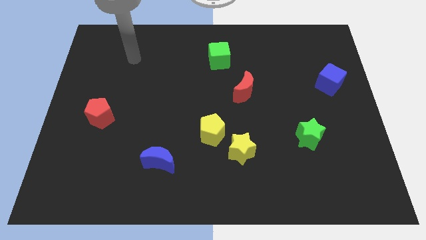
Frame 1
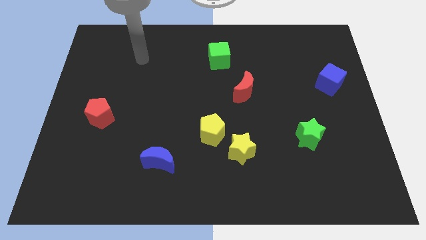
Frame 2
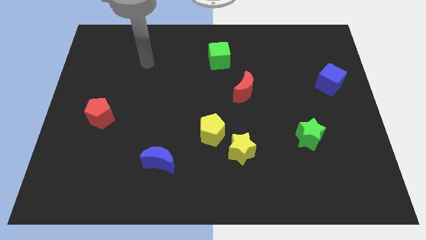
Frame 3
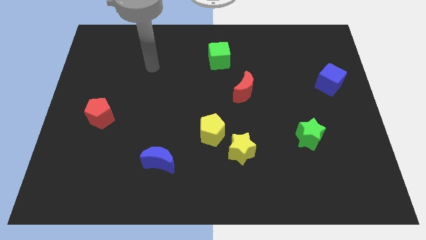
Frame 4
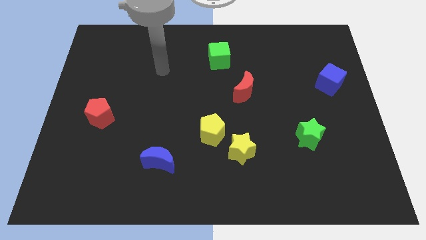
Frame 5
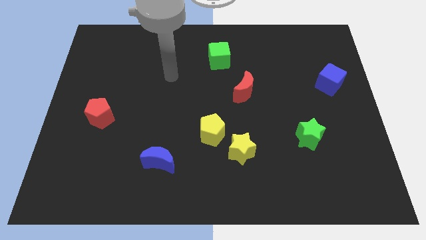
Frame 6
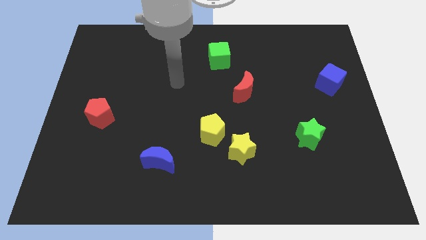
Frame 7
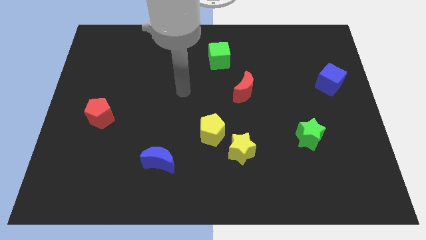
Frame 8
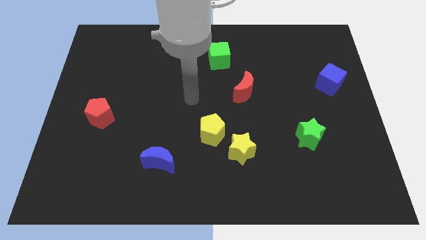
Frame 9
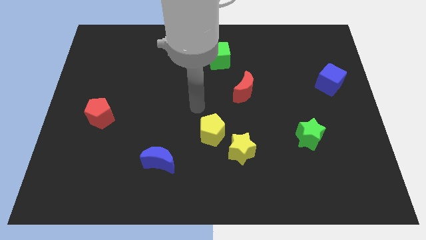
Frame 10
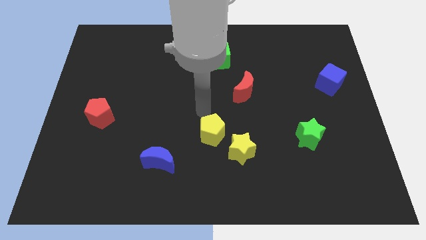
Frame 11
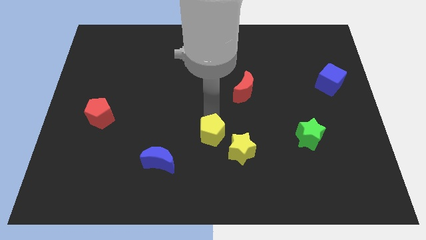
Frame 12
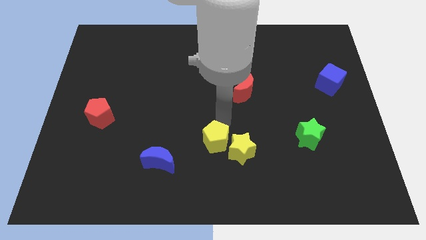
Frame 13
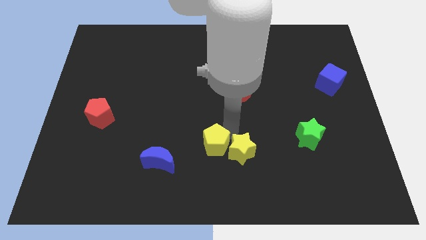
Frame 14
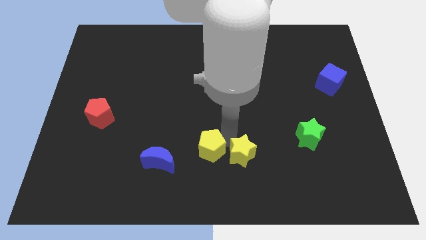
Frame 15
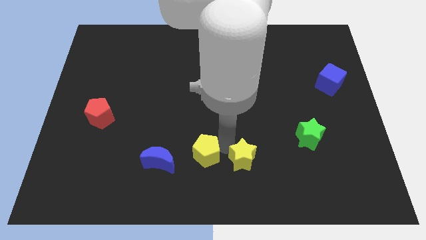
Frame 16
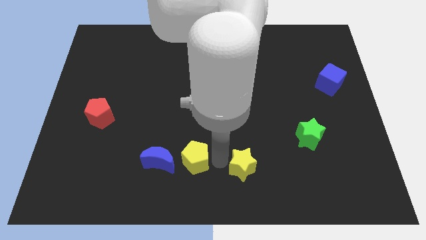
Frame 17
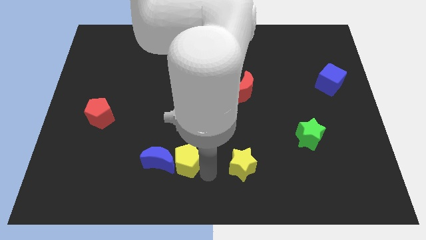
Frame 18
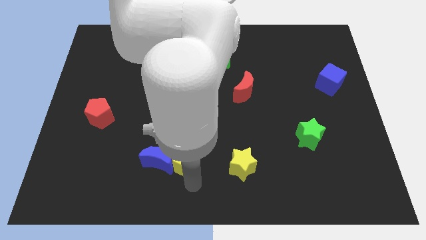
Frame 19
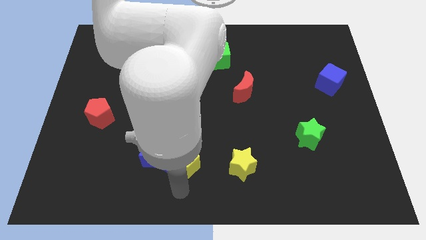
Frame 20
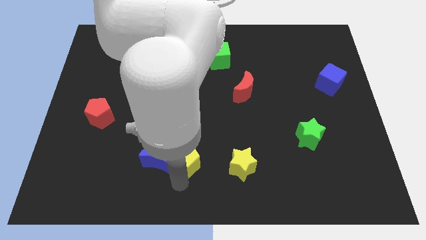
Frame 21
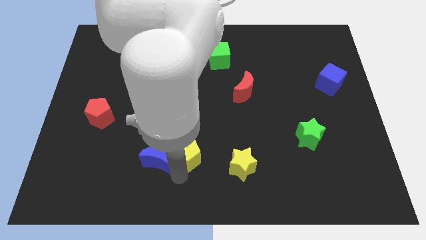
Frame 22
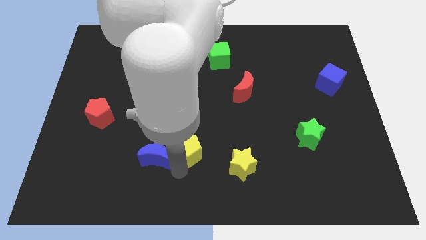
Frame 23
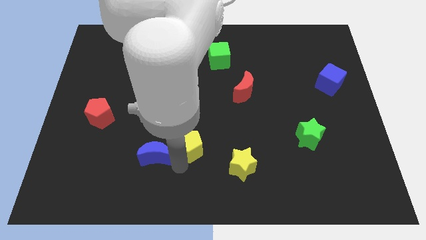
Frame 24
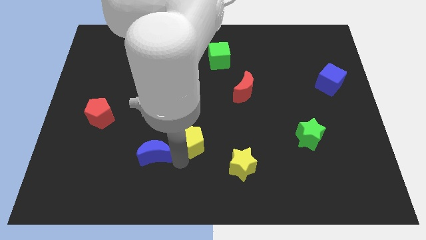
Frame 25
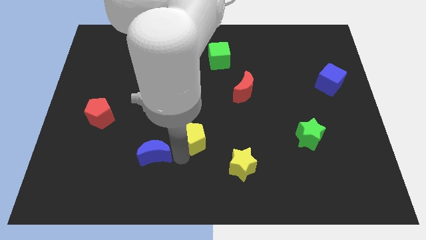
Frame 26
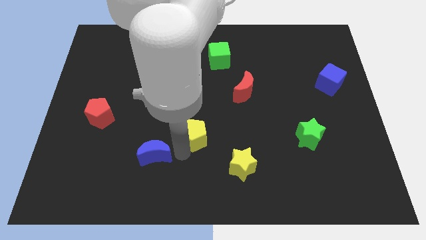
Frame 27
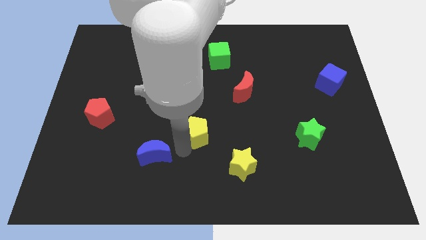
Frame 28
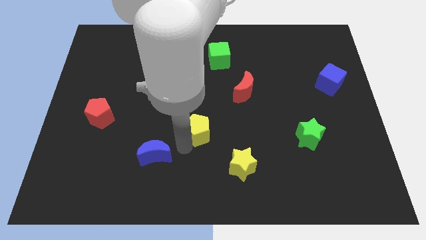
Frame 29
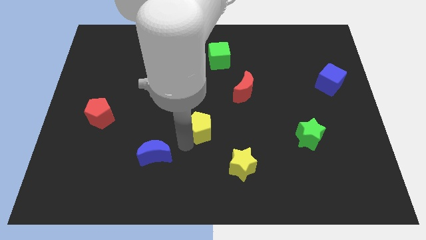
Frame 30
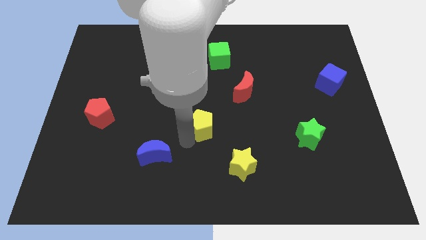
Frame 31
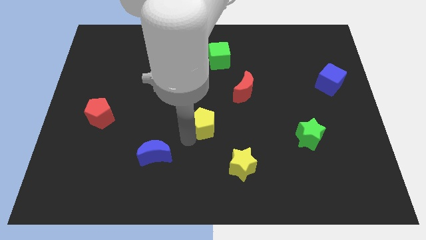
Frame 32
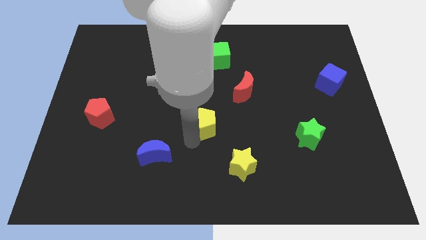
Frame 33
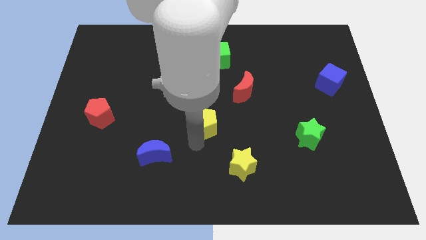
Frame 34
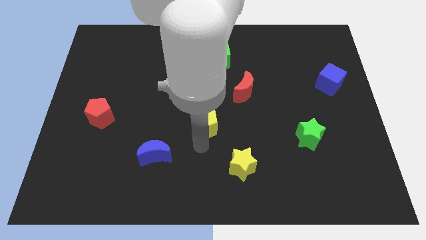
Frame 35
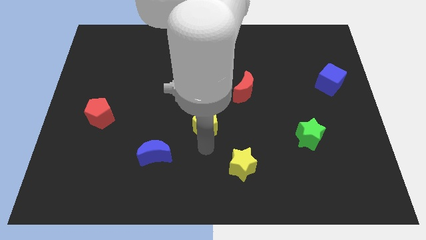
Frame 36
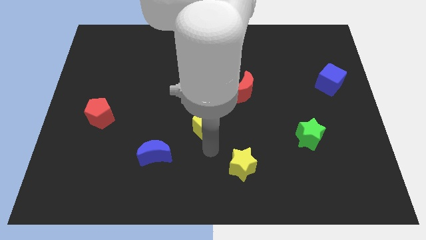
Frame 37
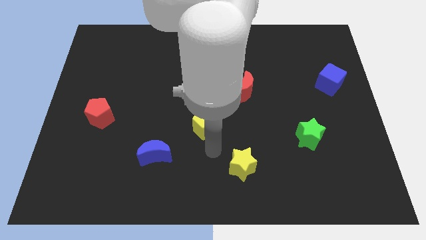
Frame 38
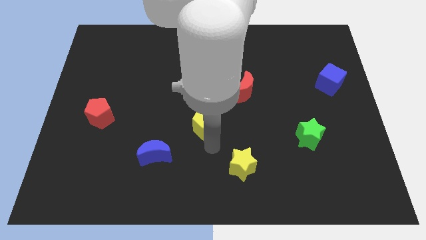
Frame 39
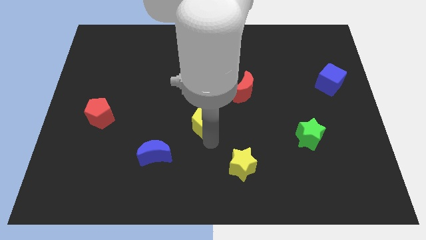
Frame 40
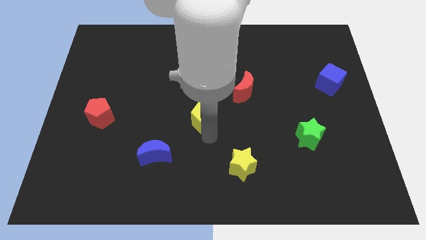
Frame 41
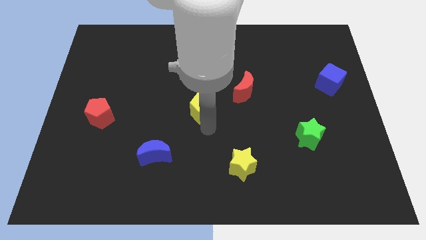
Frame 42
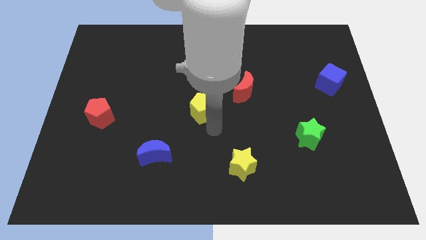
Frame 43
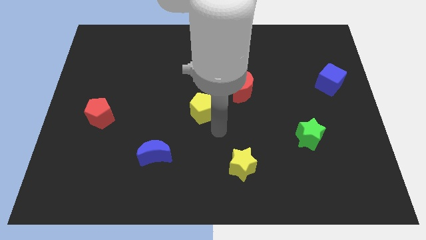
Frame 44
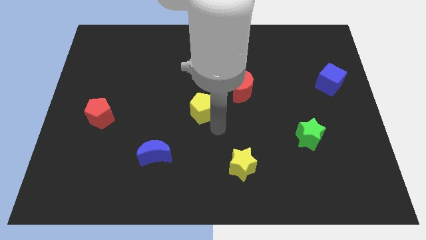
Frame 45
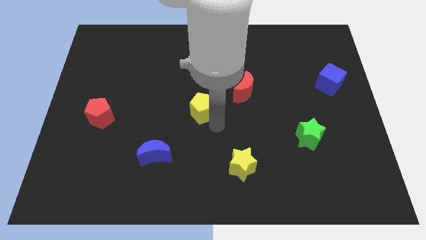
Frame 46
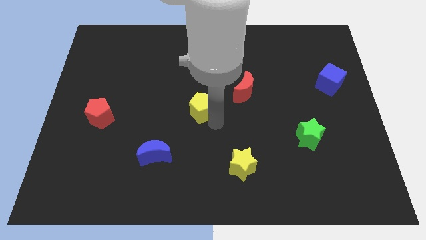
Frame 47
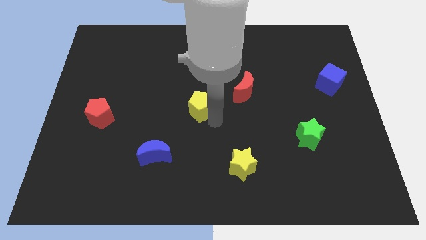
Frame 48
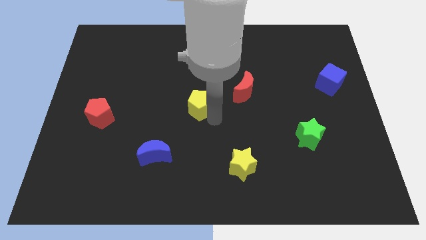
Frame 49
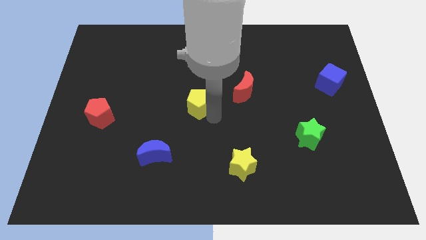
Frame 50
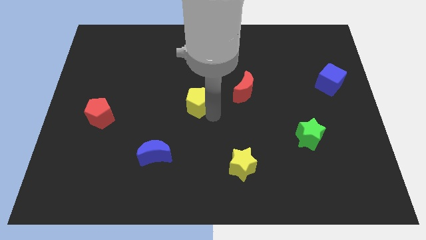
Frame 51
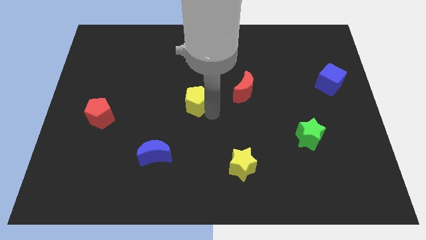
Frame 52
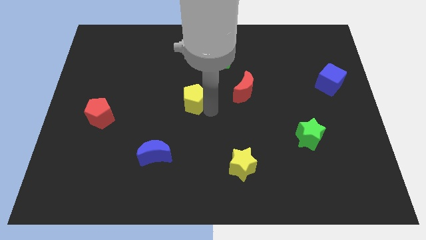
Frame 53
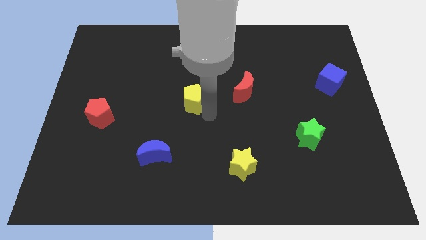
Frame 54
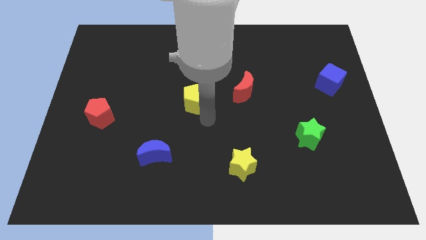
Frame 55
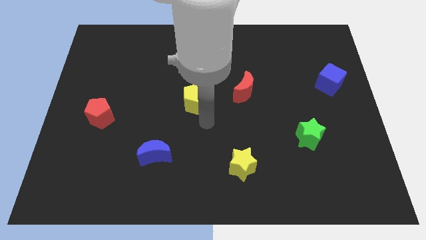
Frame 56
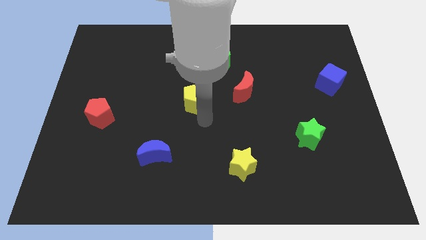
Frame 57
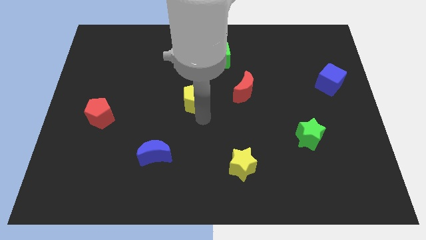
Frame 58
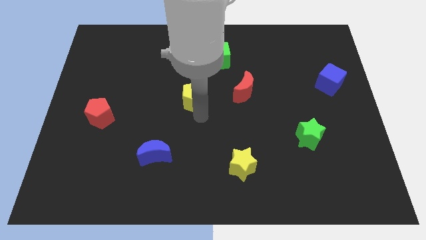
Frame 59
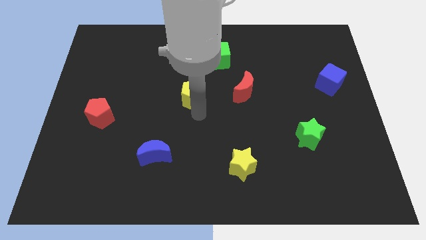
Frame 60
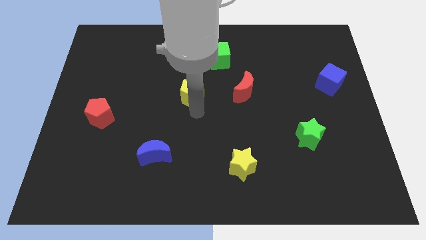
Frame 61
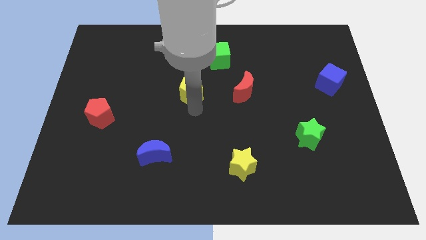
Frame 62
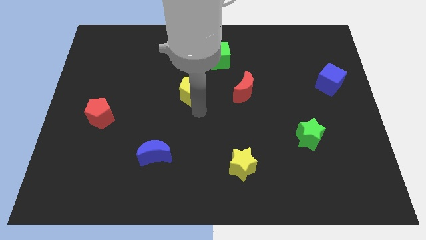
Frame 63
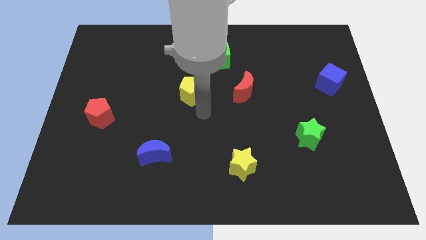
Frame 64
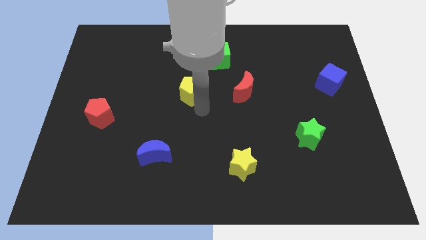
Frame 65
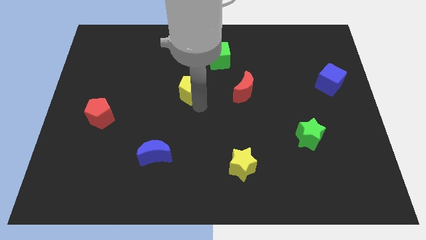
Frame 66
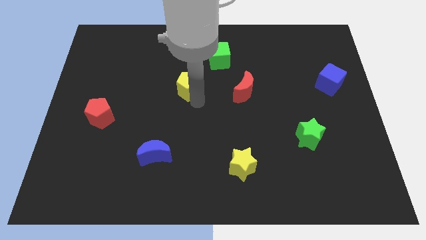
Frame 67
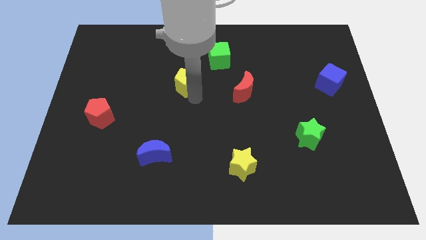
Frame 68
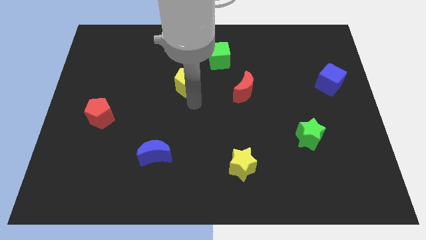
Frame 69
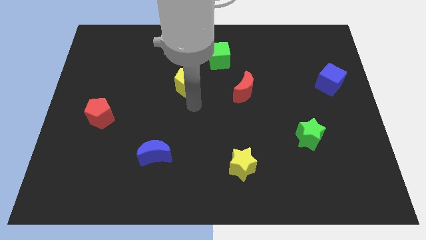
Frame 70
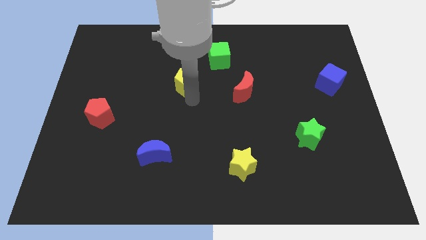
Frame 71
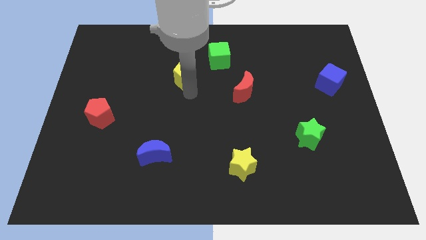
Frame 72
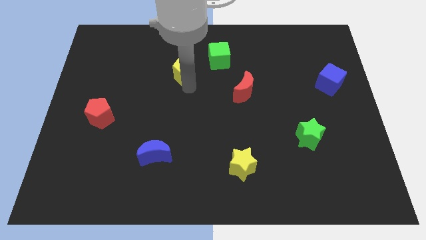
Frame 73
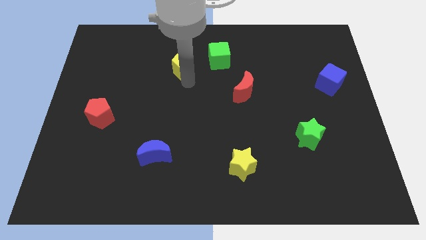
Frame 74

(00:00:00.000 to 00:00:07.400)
push the yellow pentagon left of the green cube

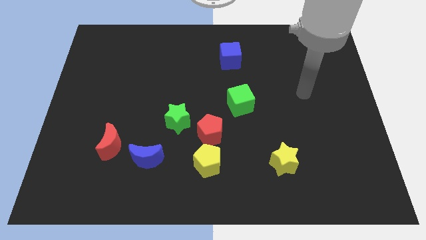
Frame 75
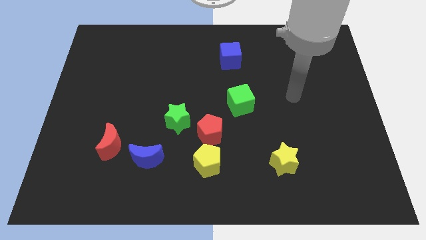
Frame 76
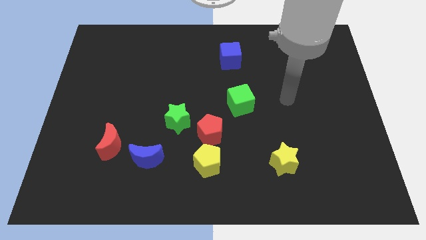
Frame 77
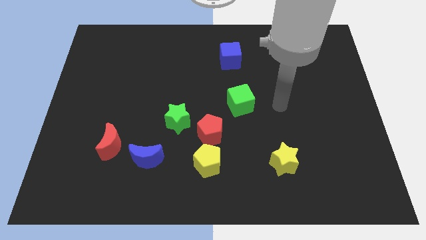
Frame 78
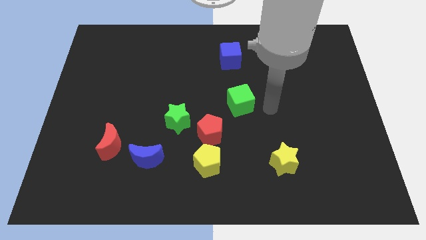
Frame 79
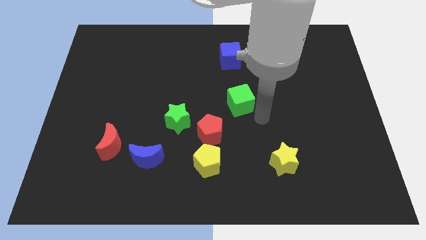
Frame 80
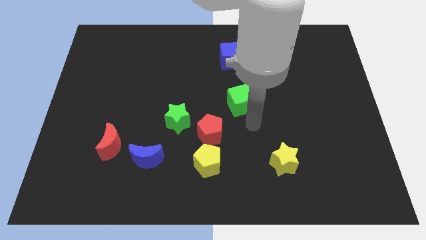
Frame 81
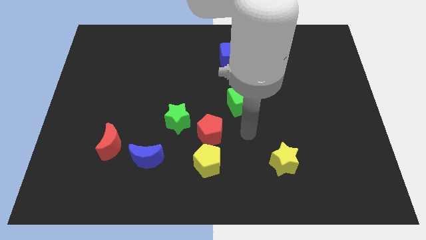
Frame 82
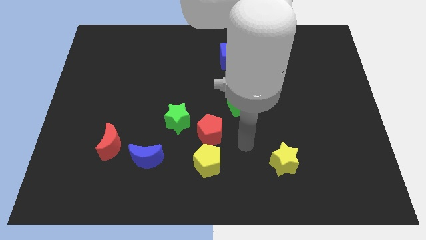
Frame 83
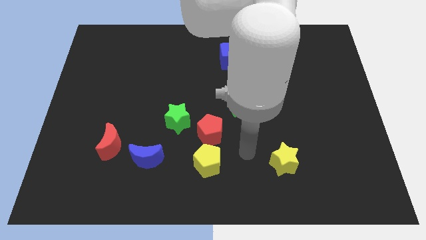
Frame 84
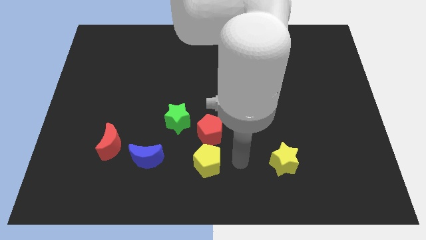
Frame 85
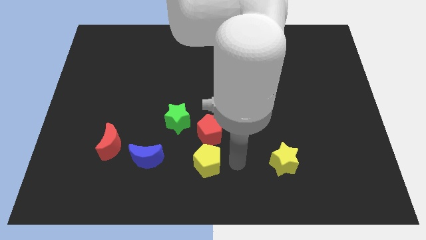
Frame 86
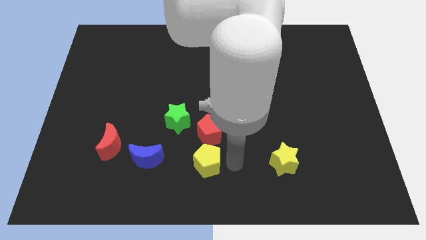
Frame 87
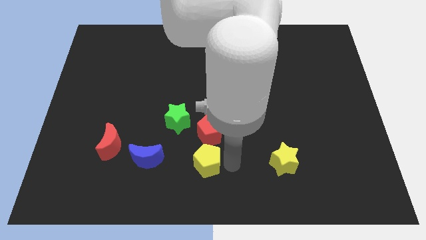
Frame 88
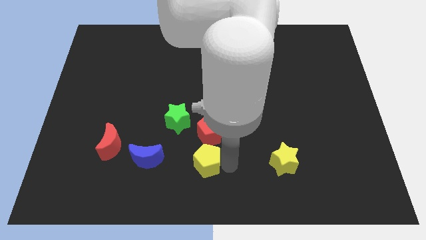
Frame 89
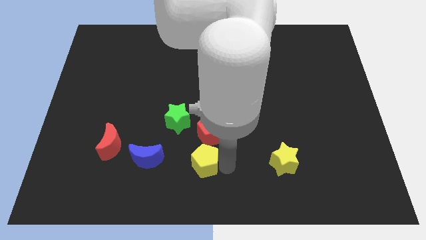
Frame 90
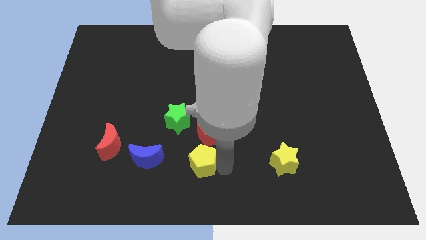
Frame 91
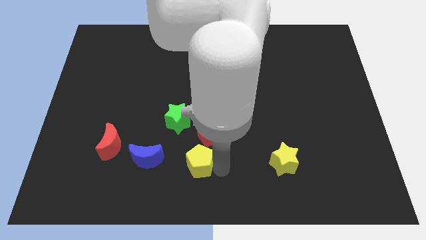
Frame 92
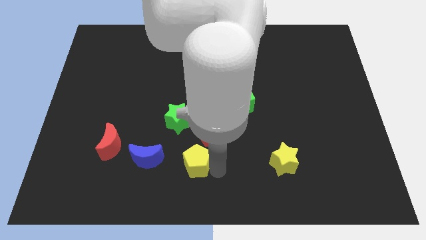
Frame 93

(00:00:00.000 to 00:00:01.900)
slide the yellow pentagon to the bottom side of the green star
